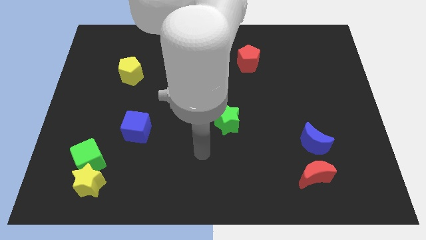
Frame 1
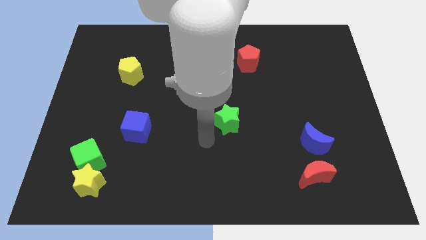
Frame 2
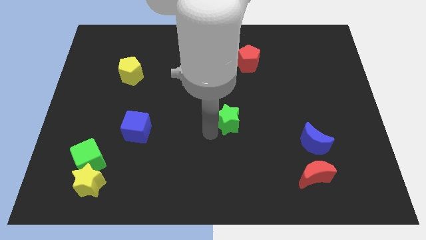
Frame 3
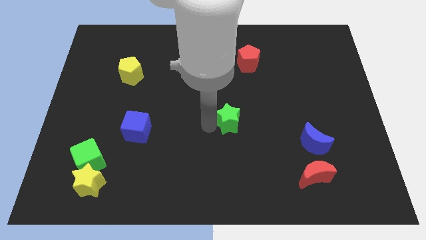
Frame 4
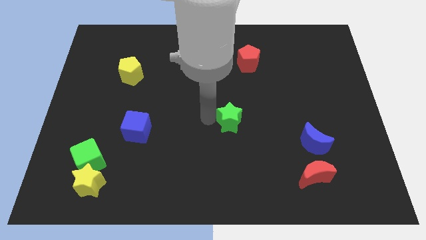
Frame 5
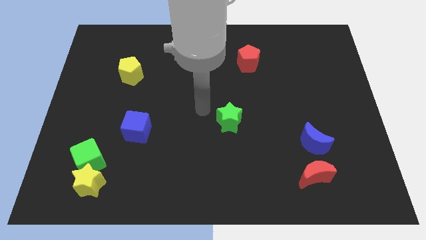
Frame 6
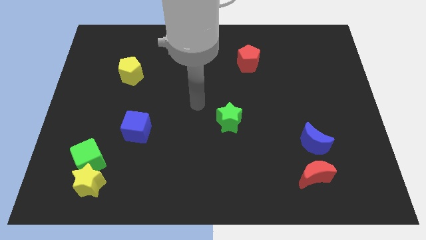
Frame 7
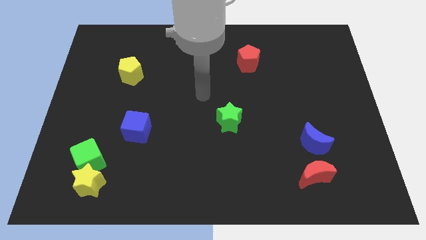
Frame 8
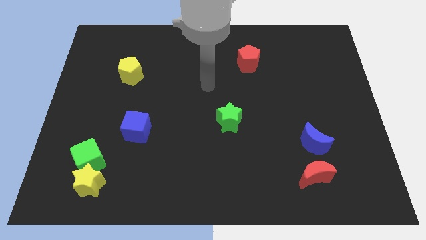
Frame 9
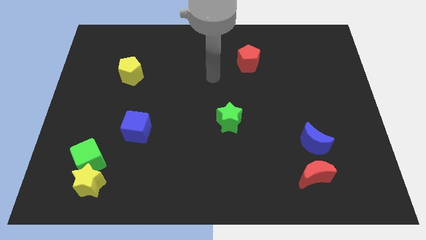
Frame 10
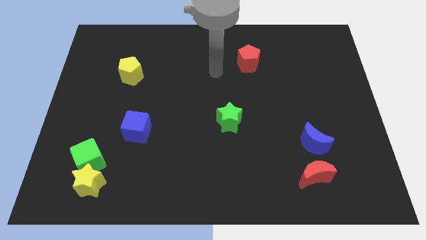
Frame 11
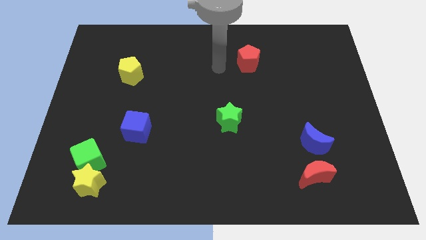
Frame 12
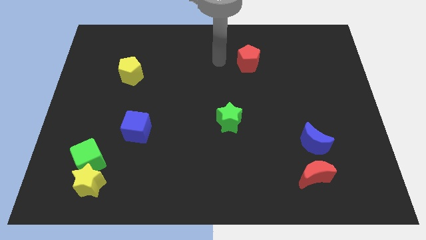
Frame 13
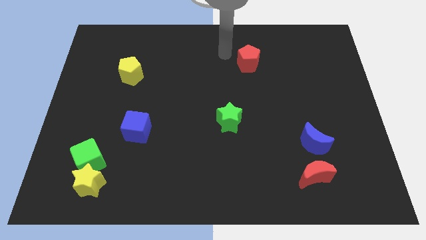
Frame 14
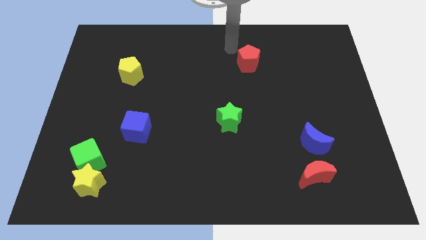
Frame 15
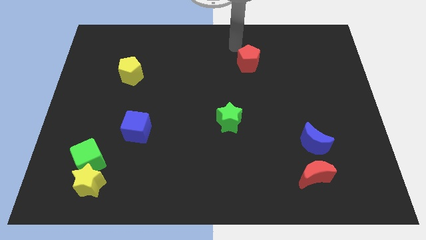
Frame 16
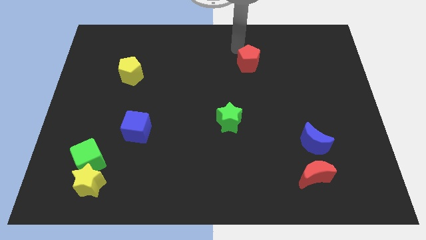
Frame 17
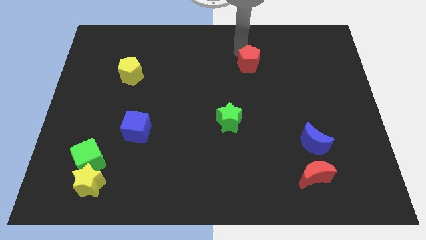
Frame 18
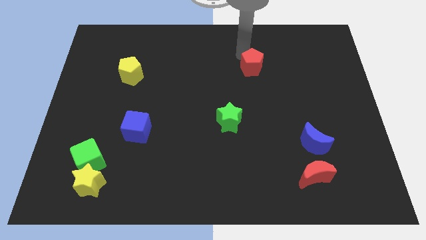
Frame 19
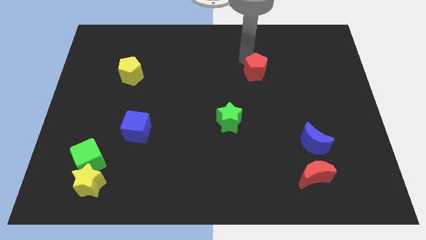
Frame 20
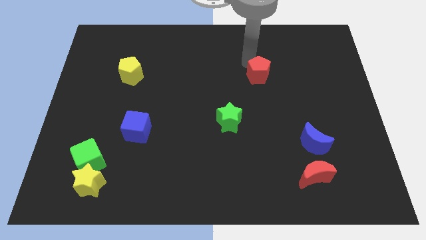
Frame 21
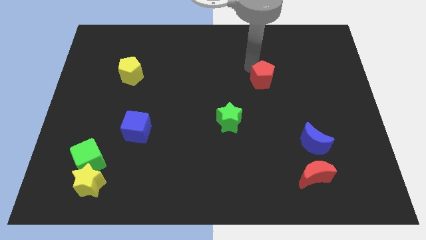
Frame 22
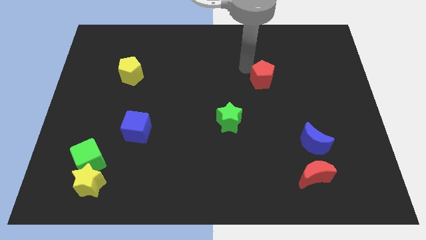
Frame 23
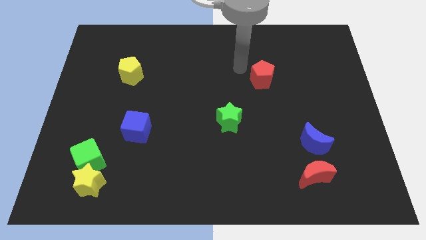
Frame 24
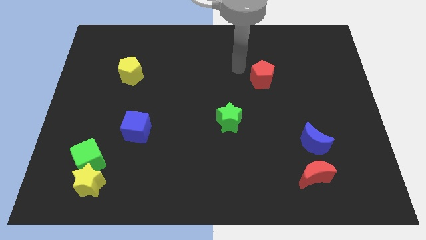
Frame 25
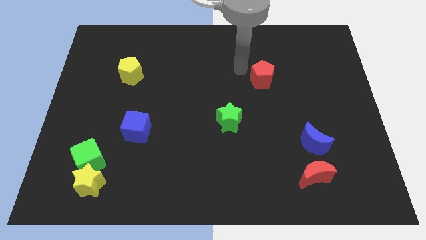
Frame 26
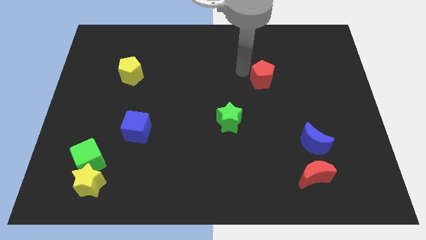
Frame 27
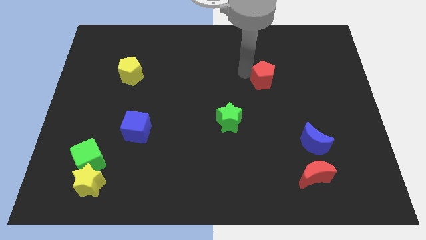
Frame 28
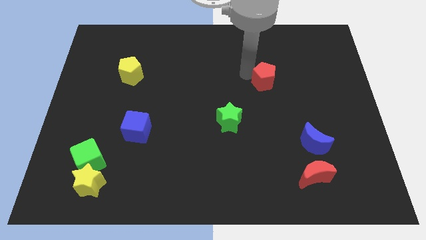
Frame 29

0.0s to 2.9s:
slightly move the red pentagon downwards and then right

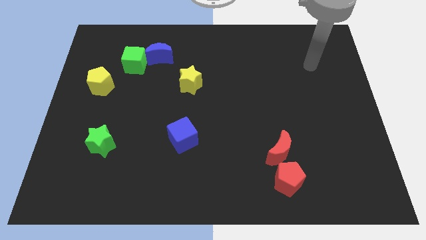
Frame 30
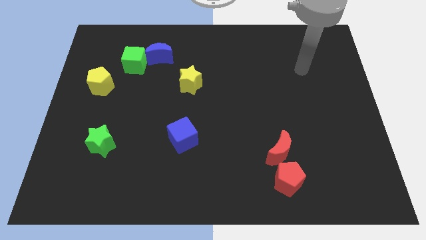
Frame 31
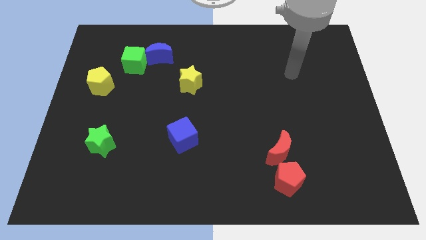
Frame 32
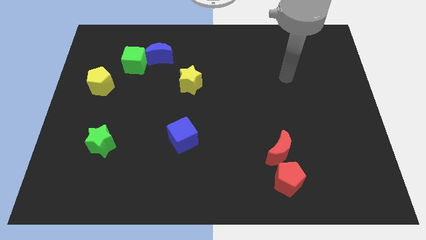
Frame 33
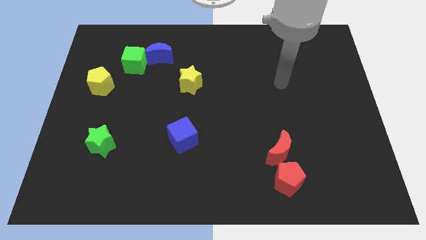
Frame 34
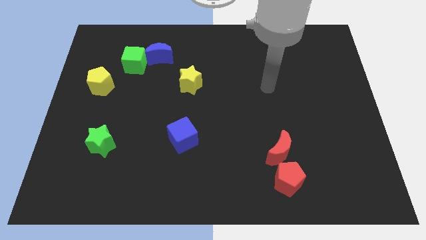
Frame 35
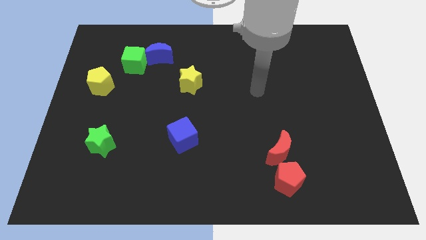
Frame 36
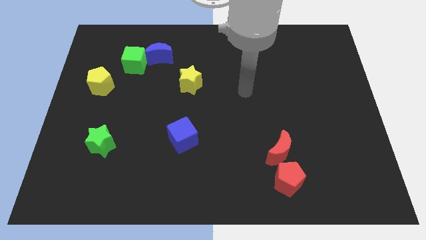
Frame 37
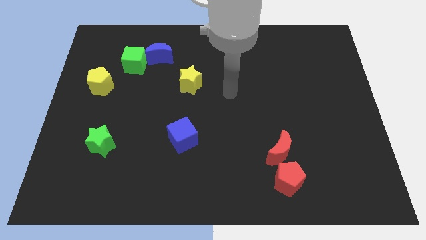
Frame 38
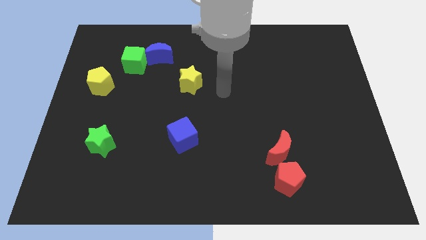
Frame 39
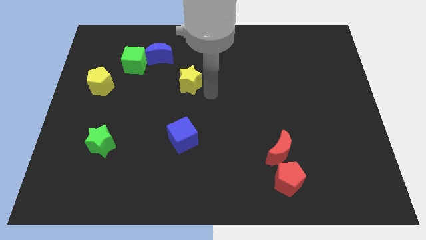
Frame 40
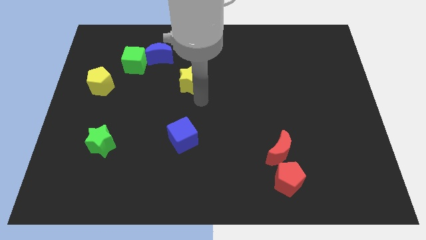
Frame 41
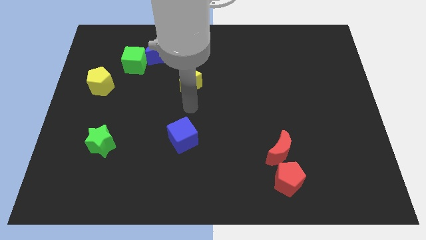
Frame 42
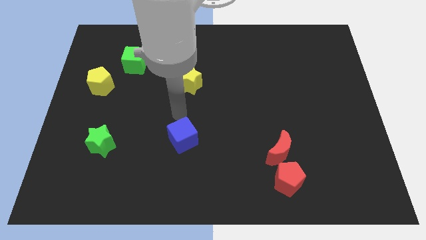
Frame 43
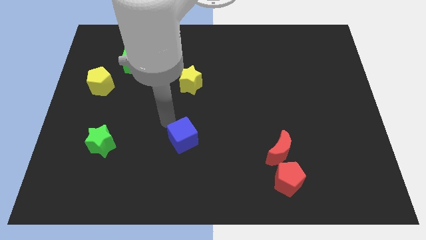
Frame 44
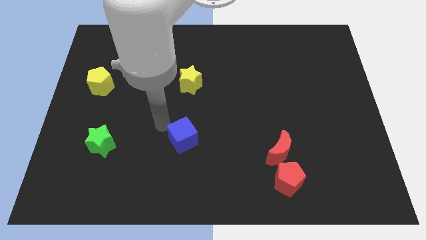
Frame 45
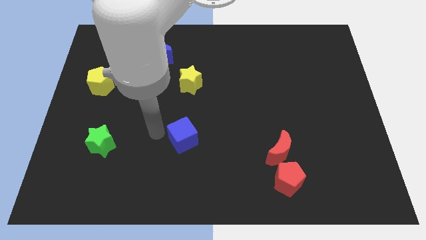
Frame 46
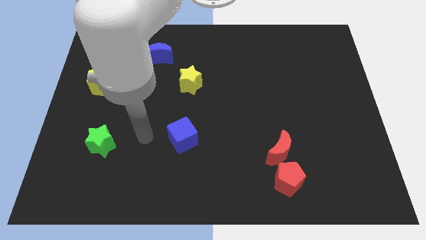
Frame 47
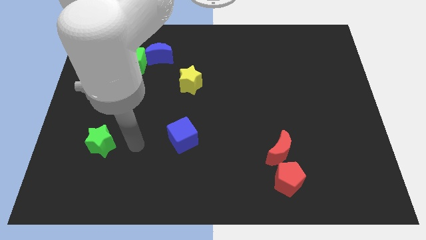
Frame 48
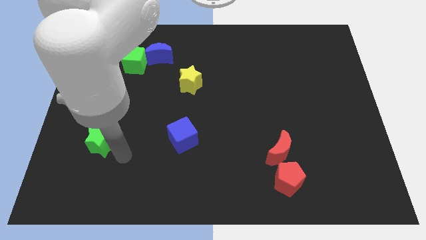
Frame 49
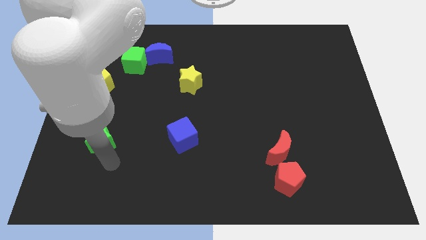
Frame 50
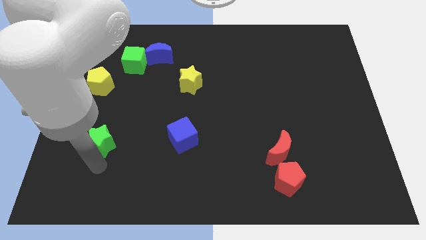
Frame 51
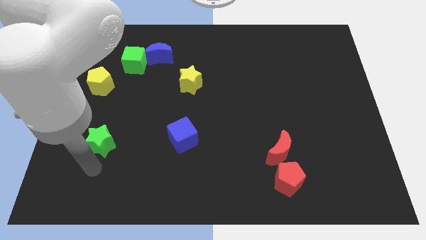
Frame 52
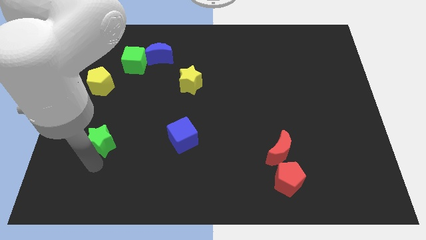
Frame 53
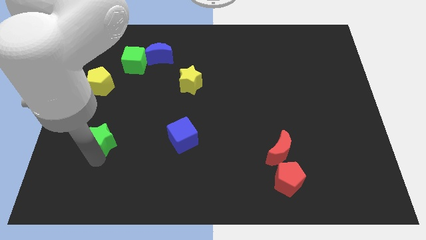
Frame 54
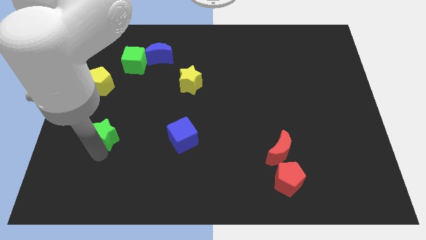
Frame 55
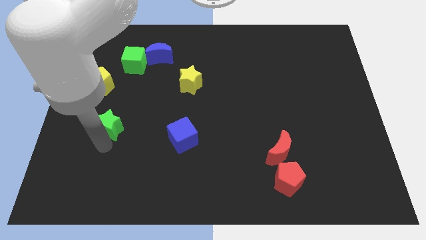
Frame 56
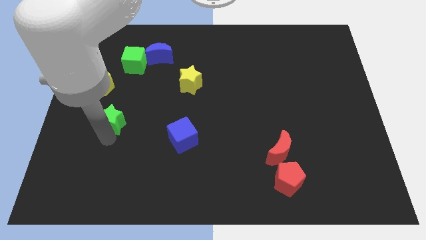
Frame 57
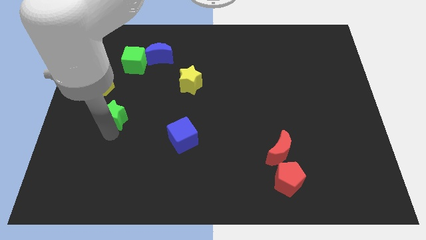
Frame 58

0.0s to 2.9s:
move the green star upwards a little bit

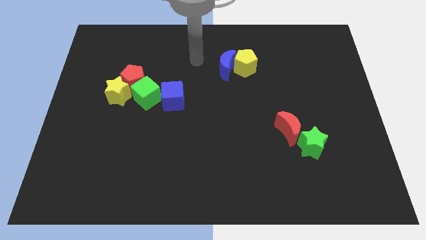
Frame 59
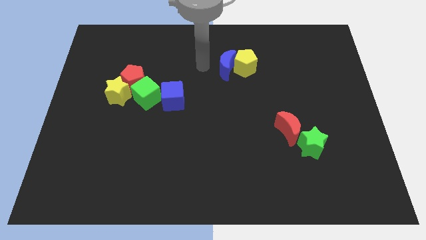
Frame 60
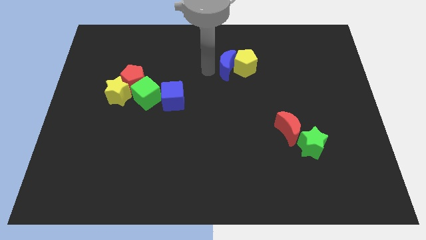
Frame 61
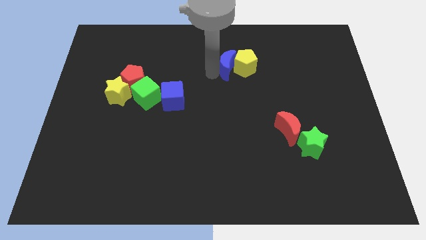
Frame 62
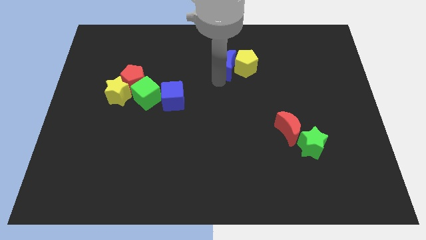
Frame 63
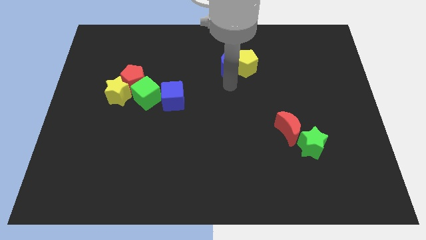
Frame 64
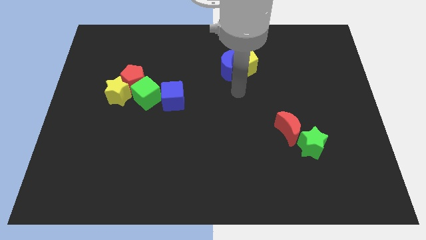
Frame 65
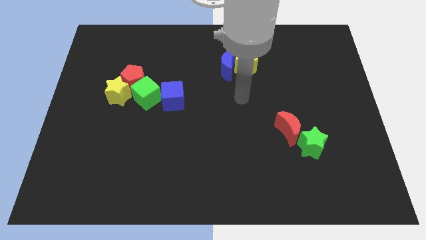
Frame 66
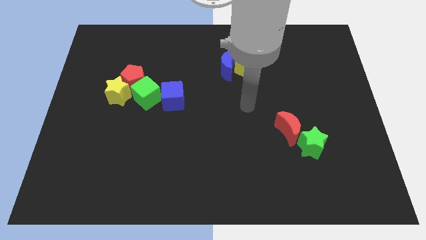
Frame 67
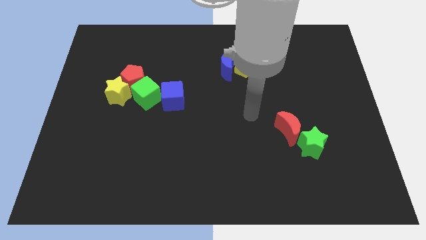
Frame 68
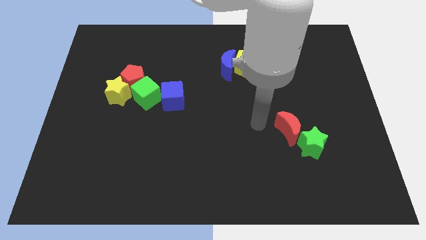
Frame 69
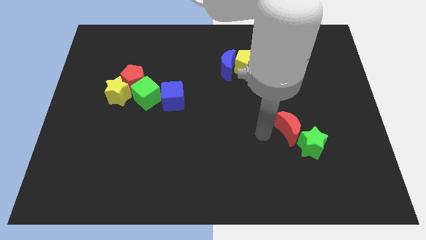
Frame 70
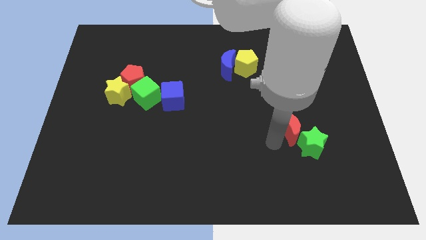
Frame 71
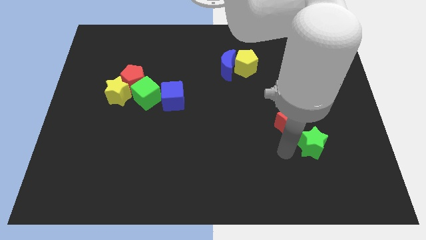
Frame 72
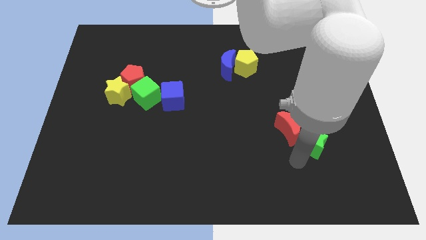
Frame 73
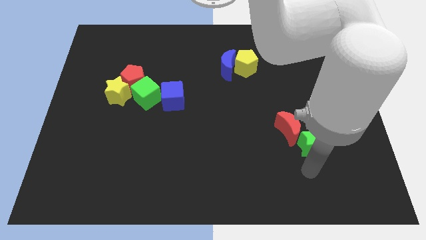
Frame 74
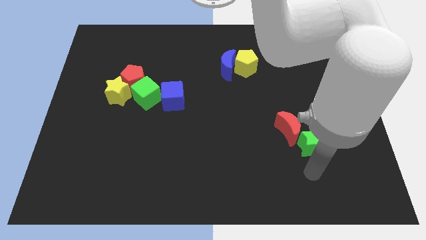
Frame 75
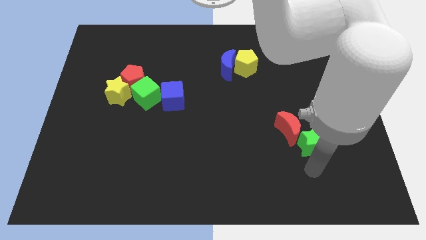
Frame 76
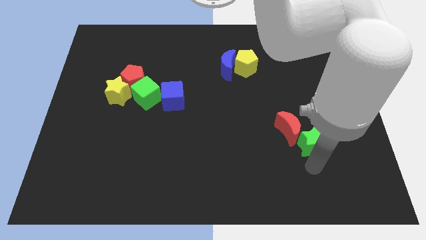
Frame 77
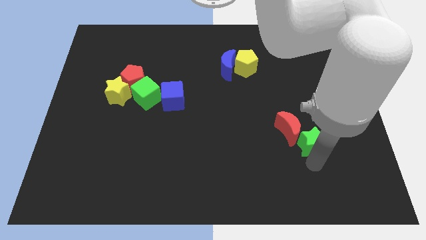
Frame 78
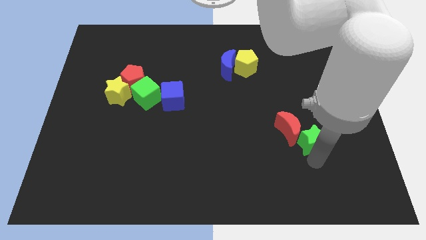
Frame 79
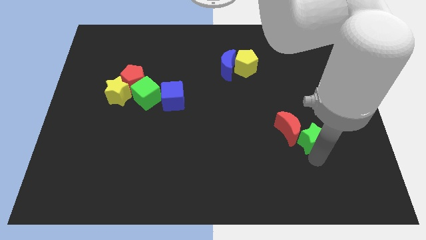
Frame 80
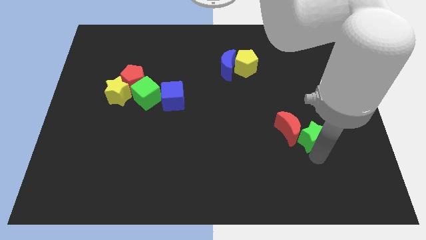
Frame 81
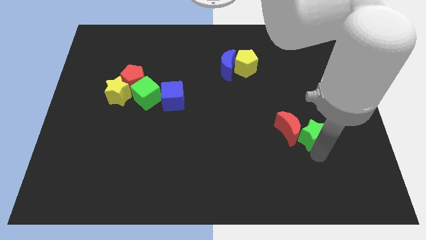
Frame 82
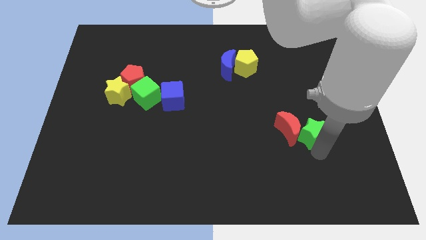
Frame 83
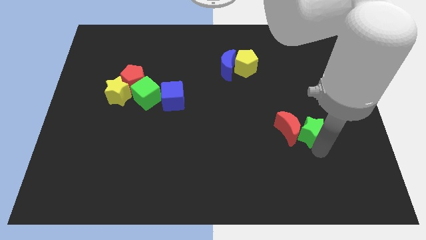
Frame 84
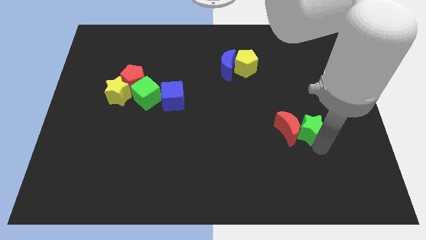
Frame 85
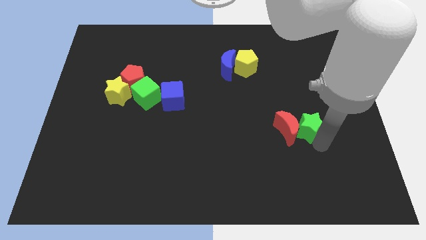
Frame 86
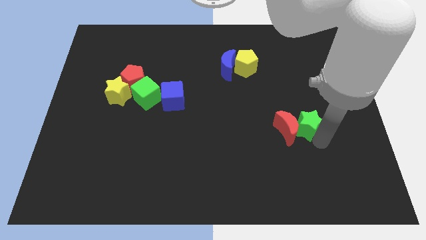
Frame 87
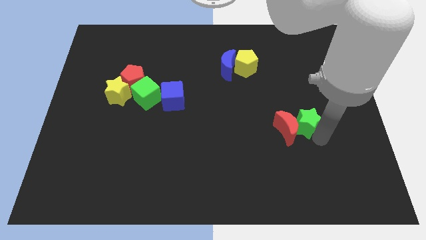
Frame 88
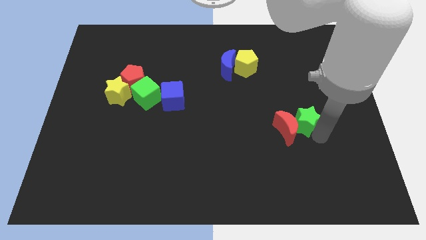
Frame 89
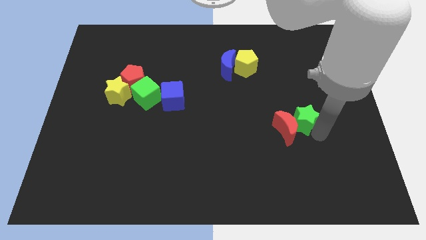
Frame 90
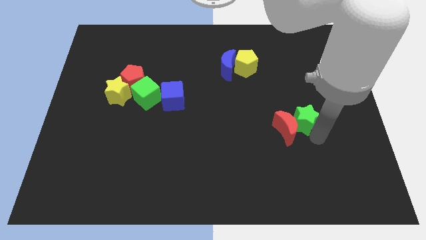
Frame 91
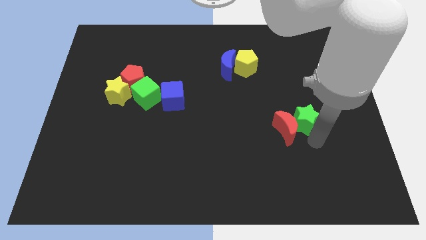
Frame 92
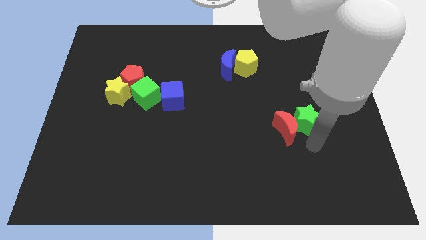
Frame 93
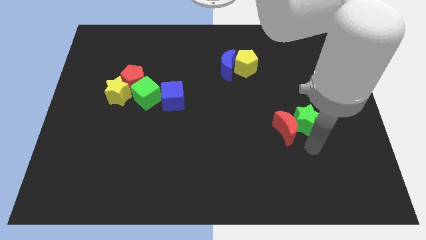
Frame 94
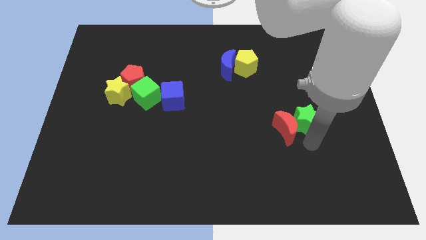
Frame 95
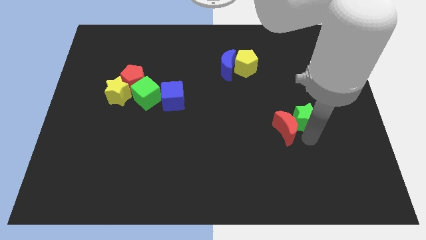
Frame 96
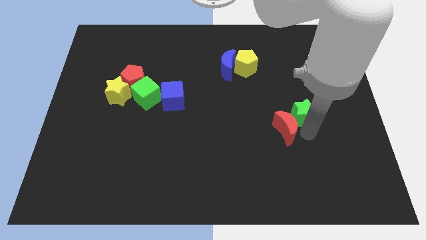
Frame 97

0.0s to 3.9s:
move the green star a bit upwards
